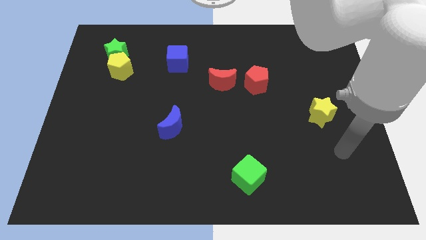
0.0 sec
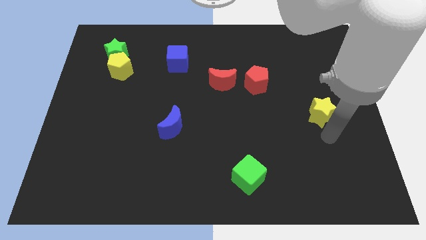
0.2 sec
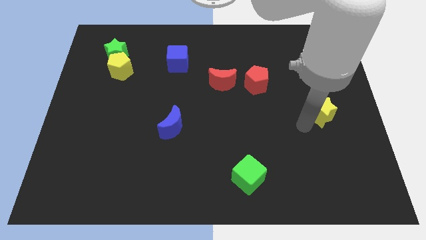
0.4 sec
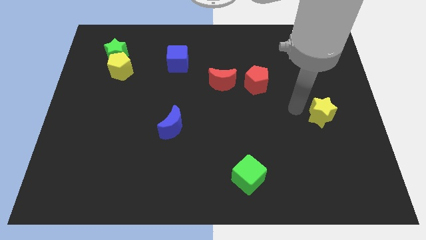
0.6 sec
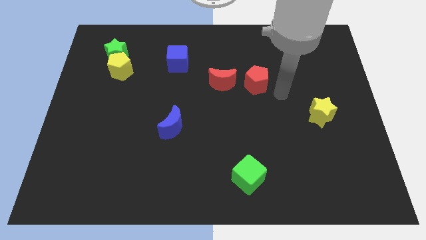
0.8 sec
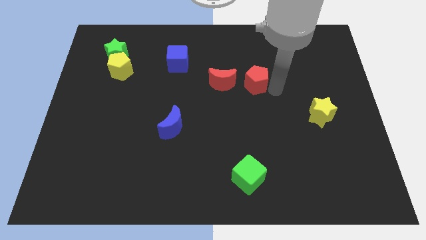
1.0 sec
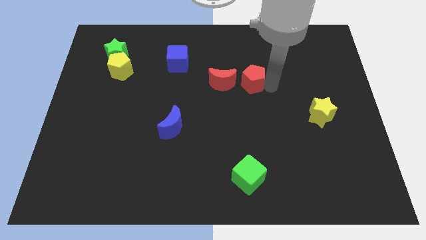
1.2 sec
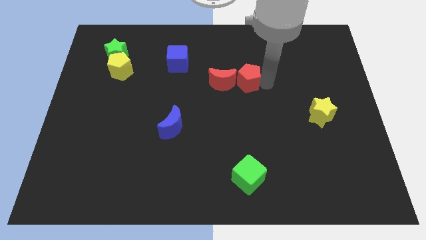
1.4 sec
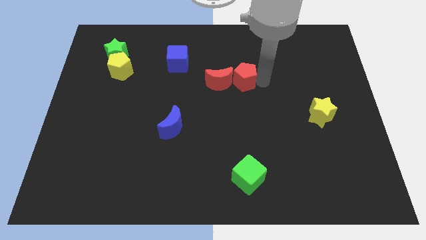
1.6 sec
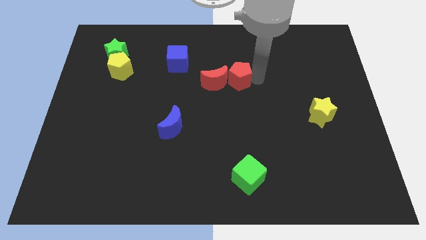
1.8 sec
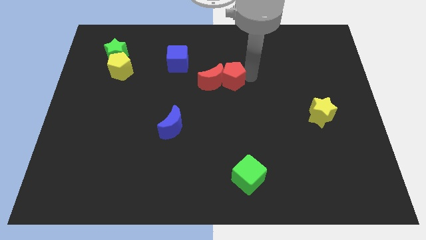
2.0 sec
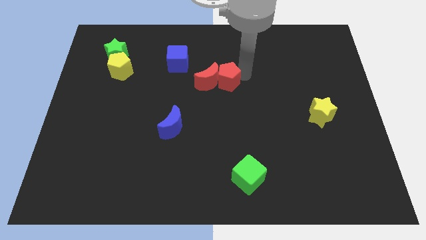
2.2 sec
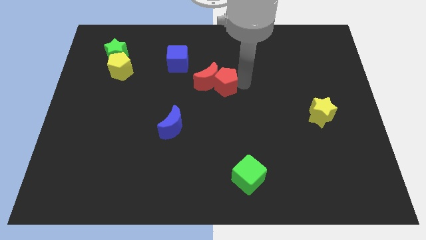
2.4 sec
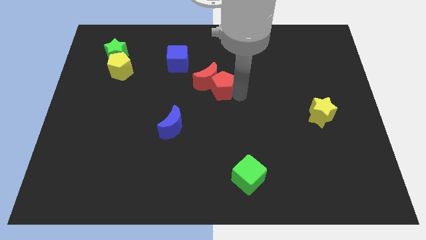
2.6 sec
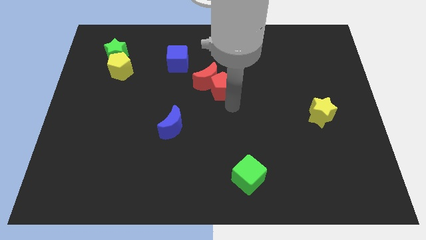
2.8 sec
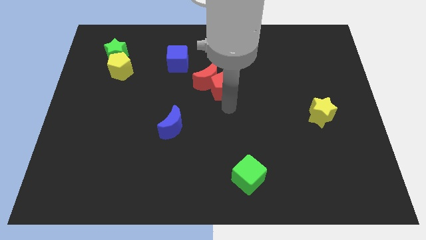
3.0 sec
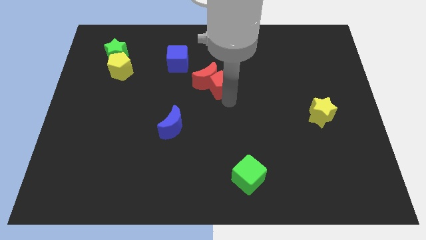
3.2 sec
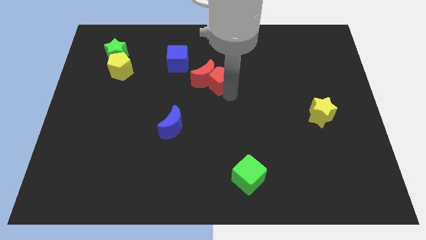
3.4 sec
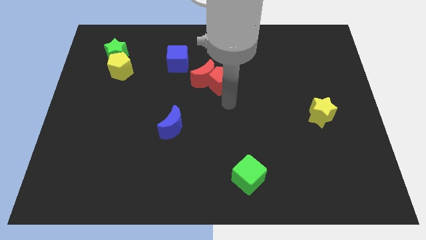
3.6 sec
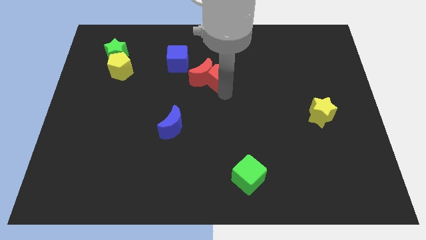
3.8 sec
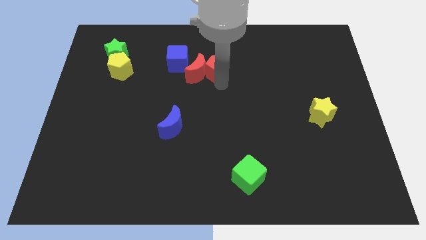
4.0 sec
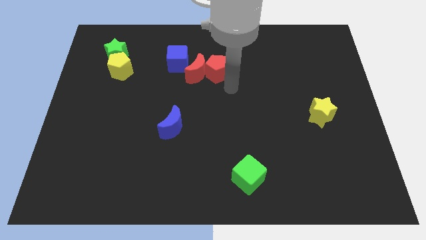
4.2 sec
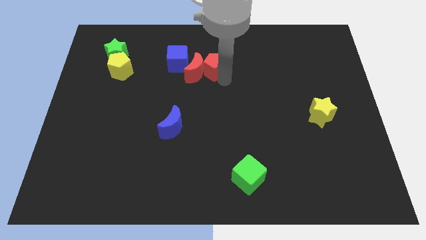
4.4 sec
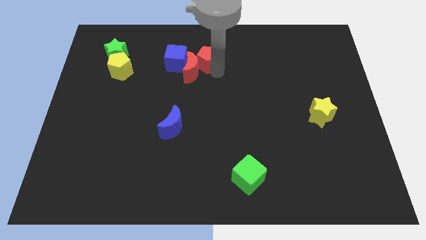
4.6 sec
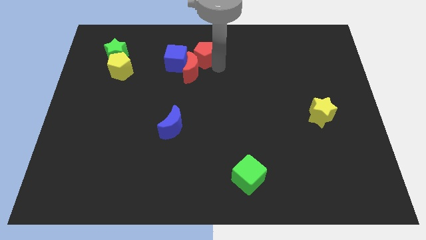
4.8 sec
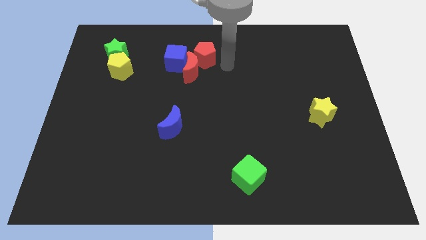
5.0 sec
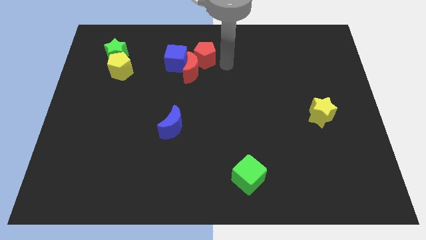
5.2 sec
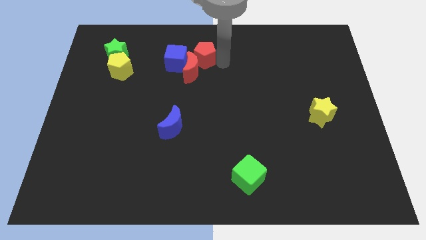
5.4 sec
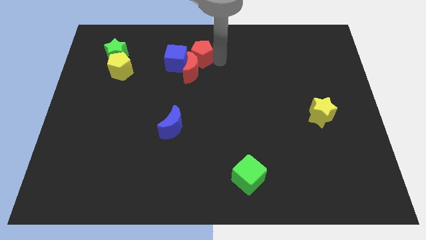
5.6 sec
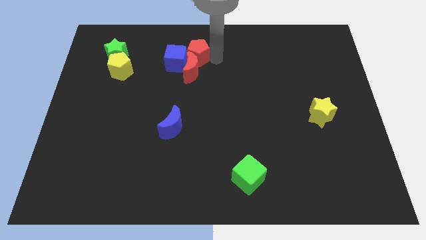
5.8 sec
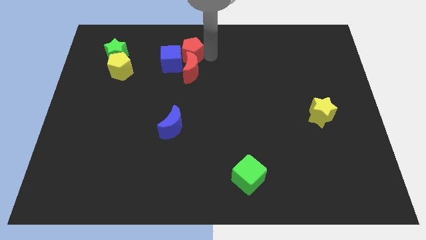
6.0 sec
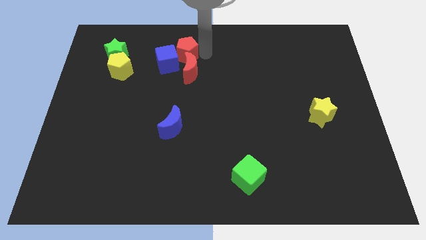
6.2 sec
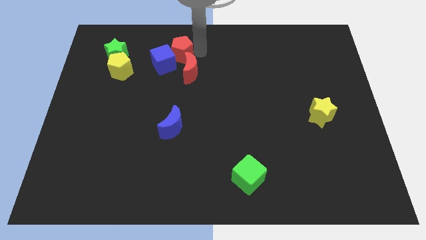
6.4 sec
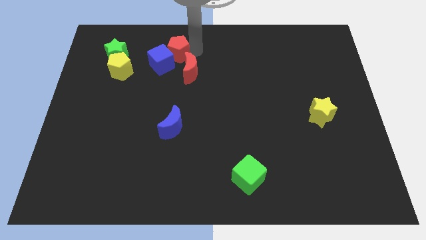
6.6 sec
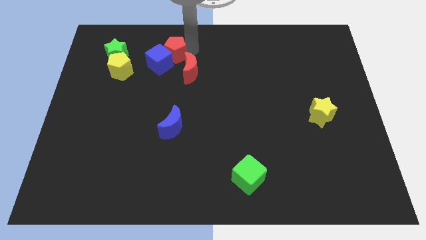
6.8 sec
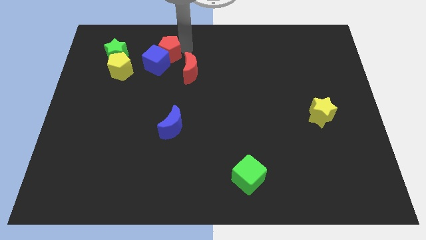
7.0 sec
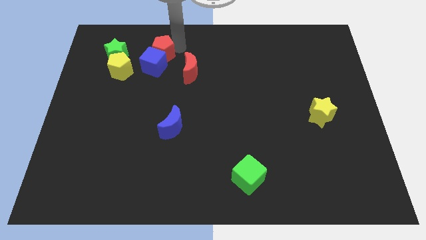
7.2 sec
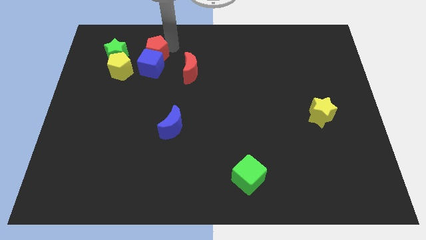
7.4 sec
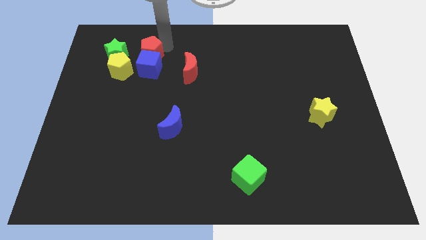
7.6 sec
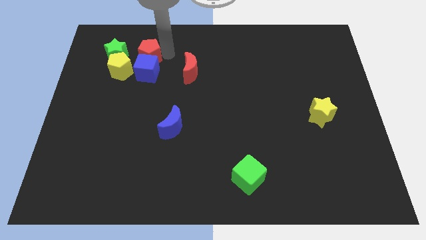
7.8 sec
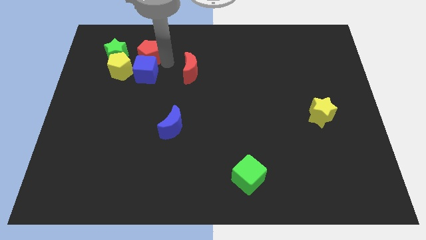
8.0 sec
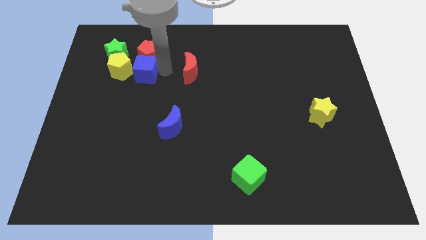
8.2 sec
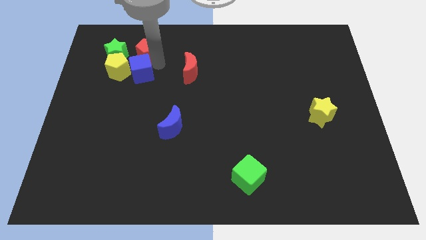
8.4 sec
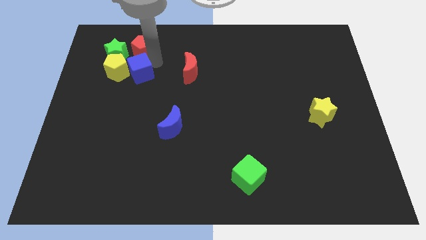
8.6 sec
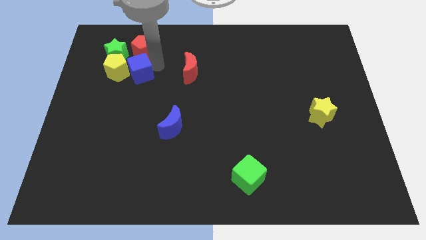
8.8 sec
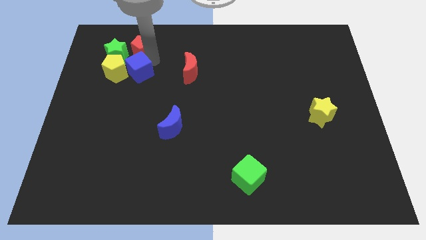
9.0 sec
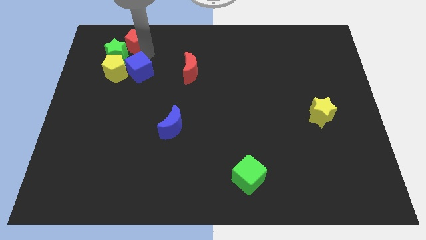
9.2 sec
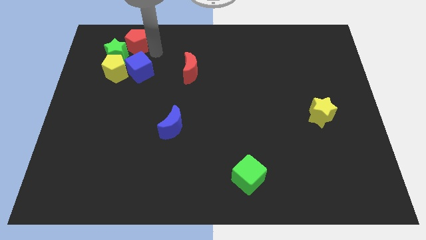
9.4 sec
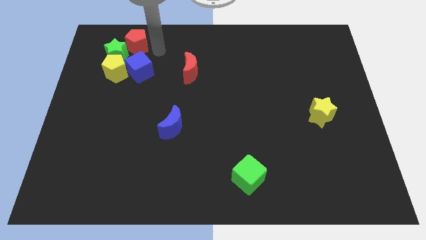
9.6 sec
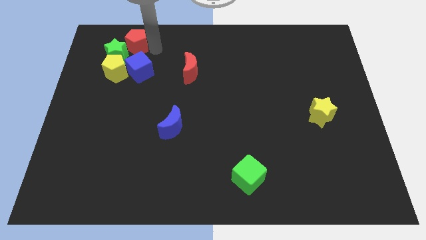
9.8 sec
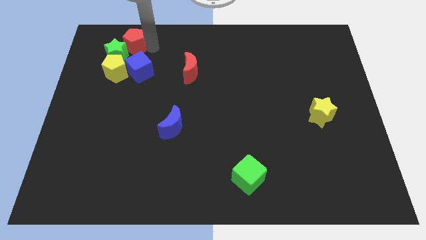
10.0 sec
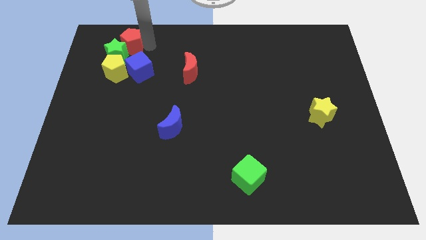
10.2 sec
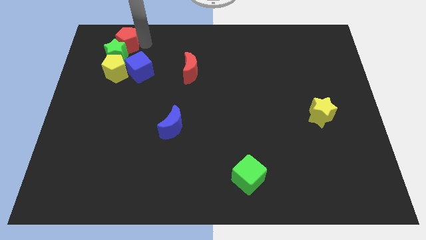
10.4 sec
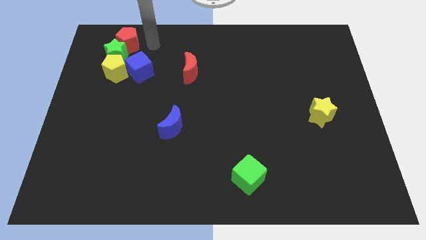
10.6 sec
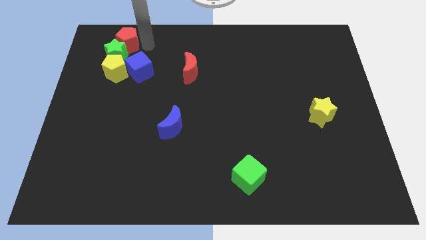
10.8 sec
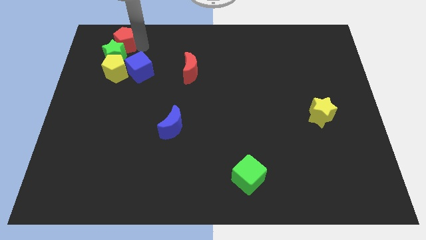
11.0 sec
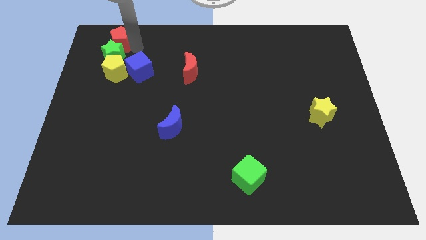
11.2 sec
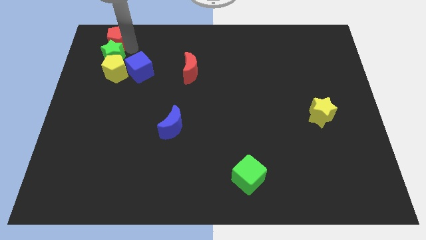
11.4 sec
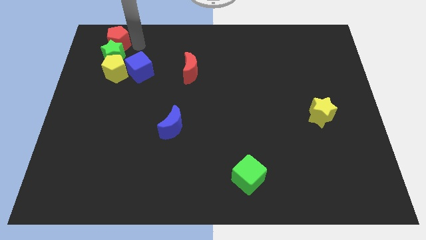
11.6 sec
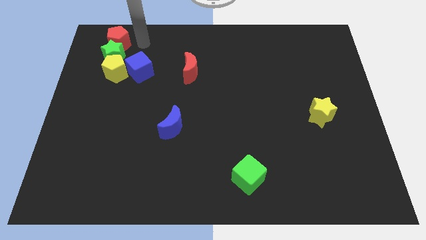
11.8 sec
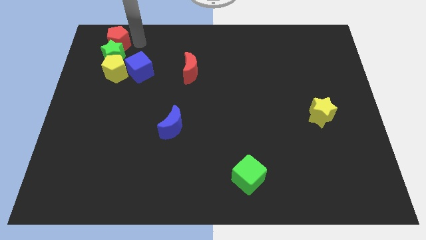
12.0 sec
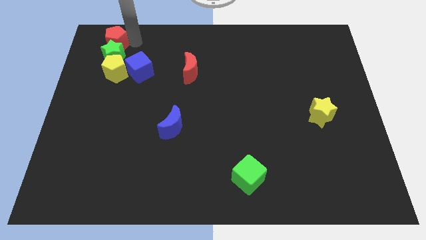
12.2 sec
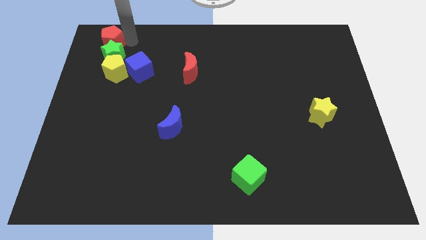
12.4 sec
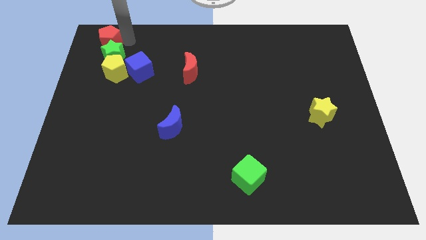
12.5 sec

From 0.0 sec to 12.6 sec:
push the red pentagon to the top left

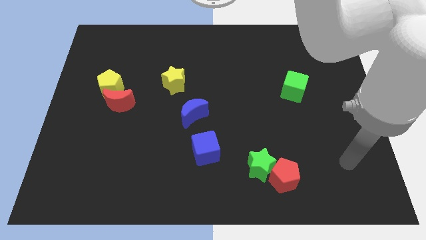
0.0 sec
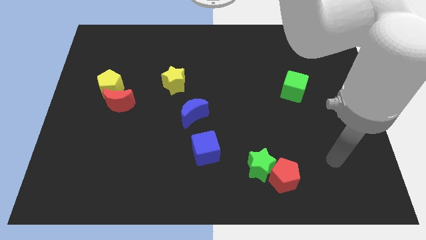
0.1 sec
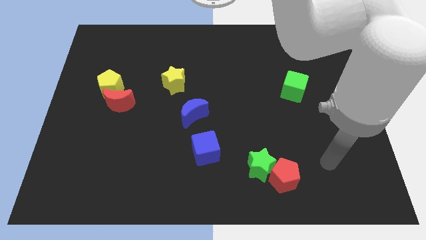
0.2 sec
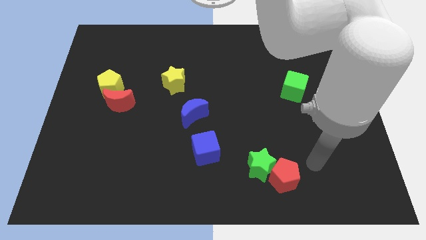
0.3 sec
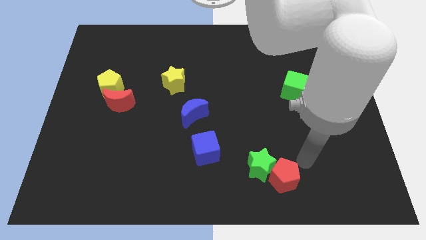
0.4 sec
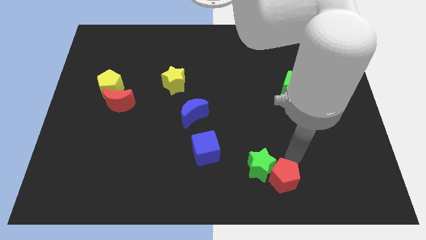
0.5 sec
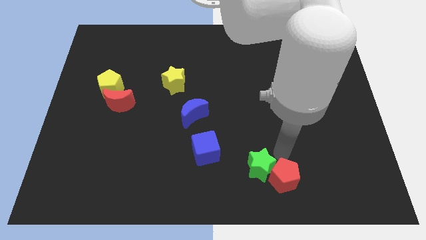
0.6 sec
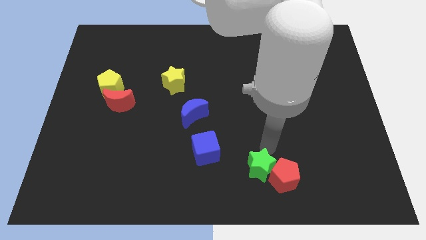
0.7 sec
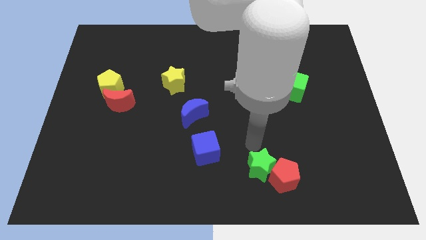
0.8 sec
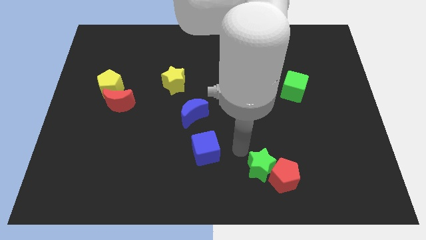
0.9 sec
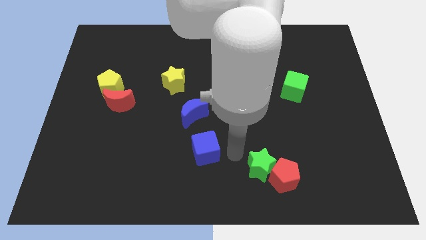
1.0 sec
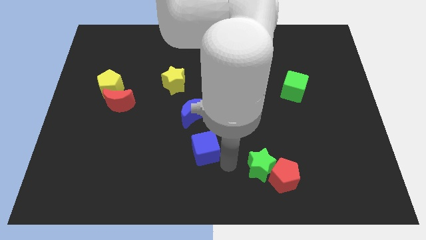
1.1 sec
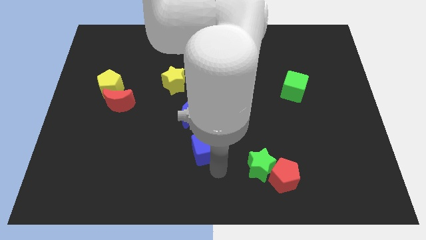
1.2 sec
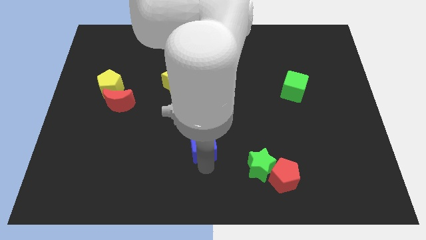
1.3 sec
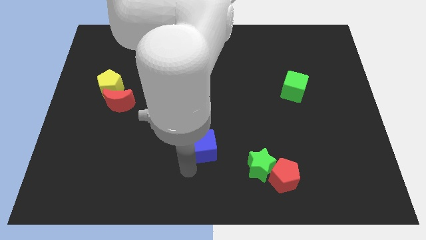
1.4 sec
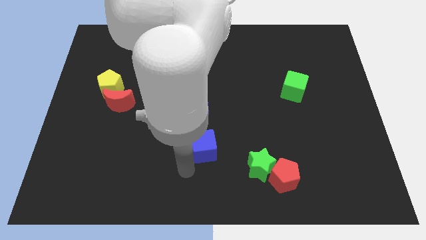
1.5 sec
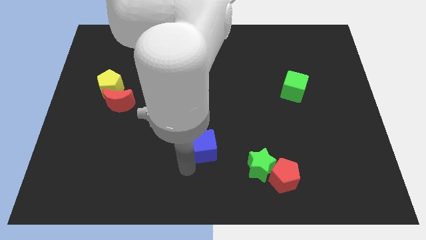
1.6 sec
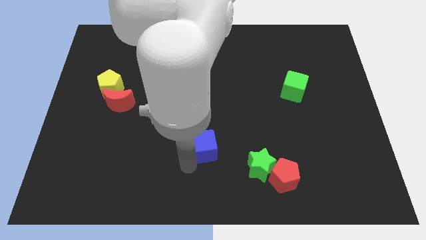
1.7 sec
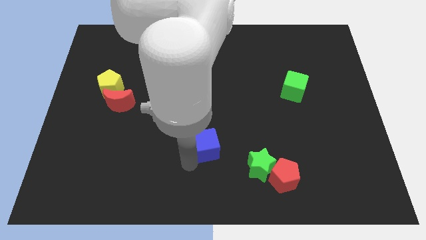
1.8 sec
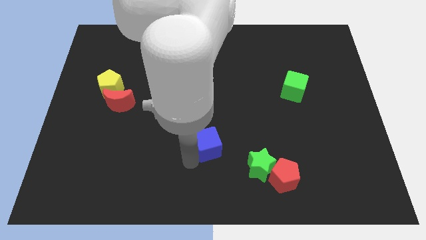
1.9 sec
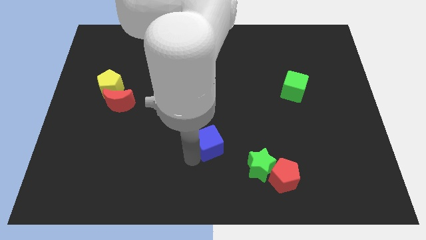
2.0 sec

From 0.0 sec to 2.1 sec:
push the blue cube to the center
